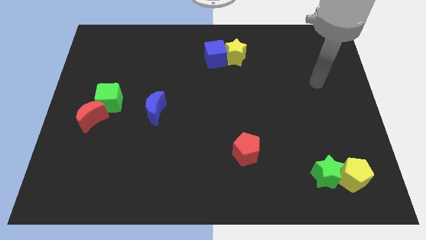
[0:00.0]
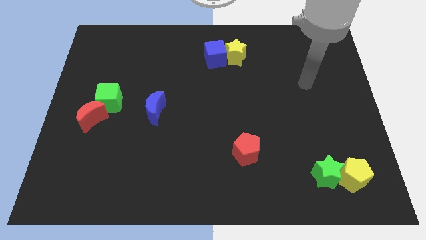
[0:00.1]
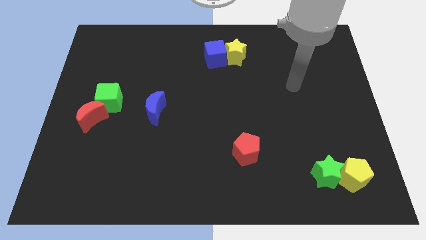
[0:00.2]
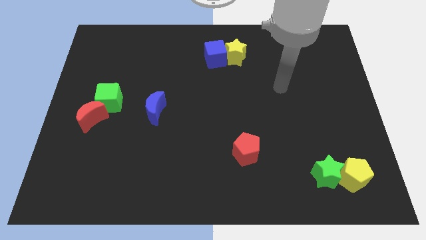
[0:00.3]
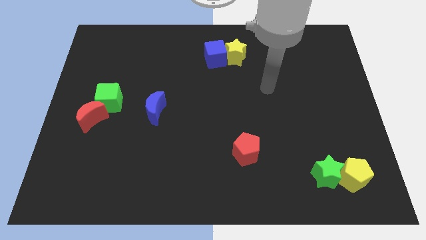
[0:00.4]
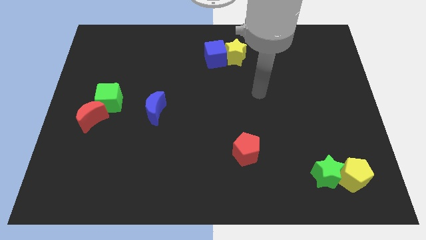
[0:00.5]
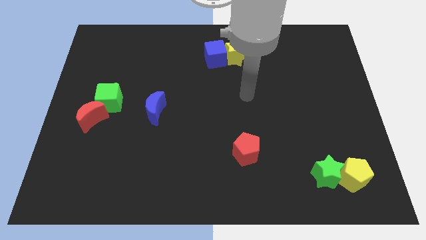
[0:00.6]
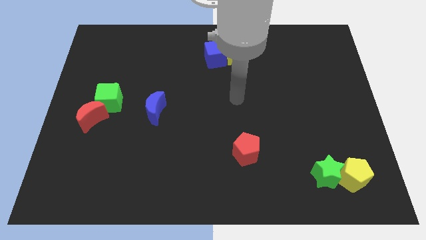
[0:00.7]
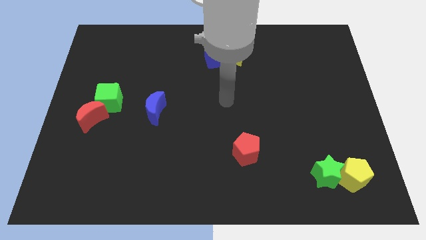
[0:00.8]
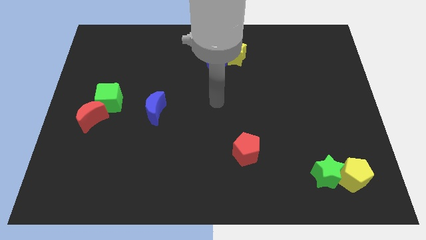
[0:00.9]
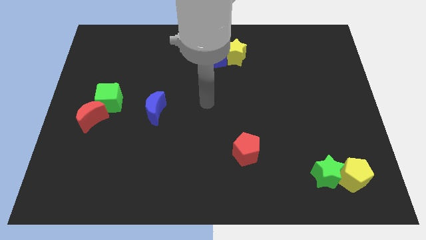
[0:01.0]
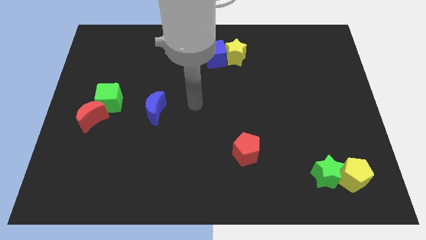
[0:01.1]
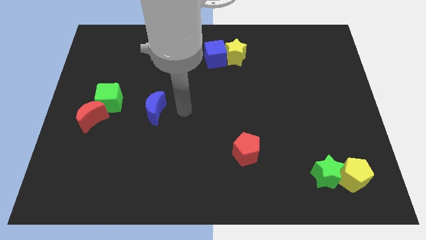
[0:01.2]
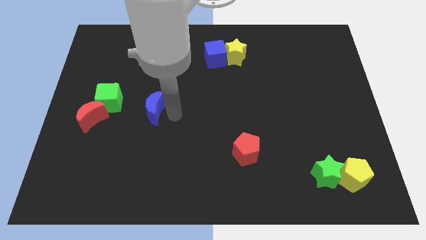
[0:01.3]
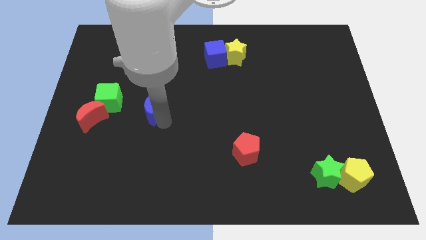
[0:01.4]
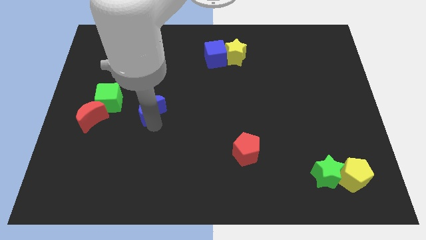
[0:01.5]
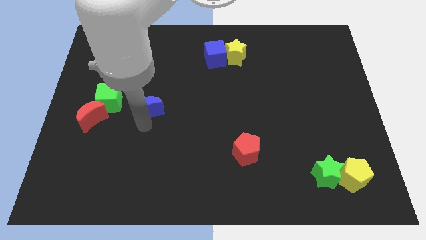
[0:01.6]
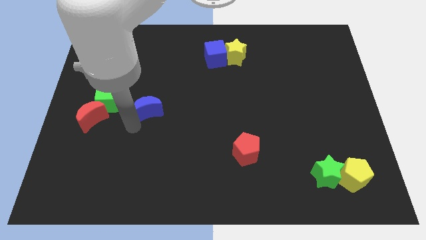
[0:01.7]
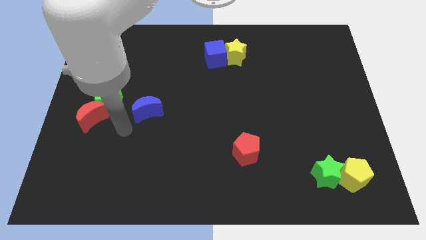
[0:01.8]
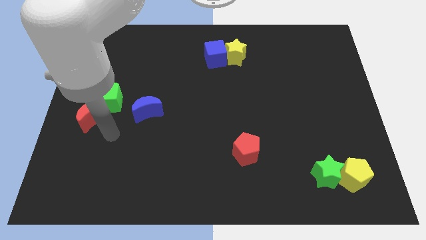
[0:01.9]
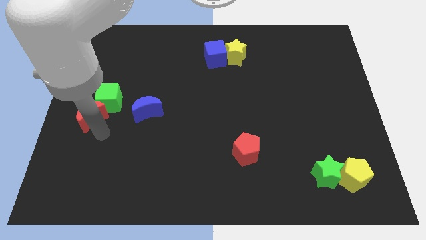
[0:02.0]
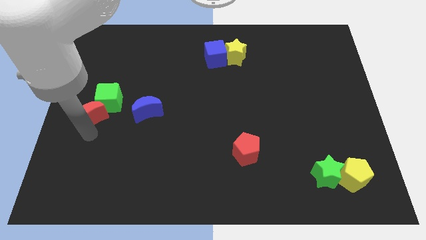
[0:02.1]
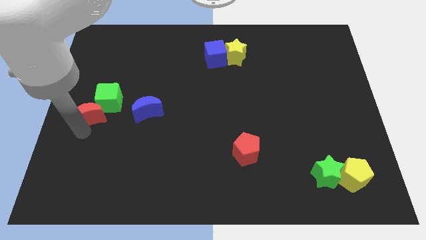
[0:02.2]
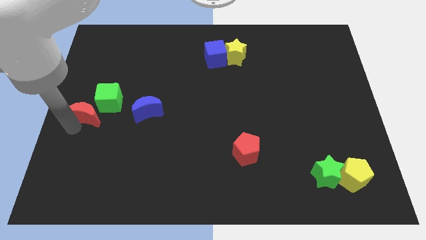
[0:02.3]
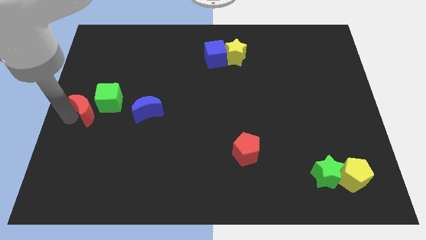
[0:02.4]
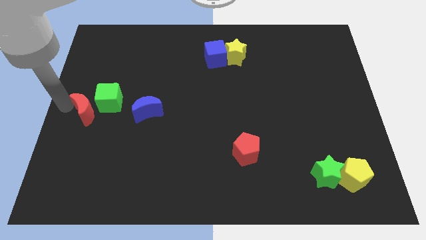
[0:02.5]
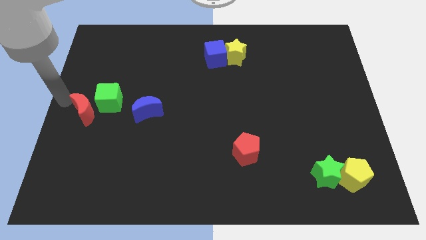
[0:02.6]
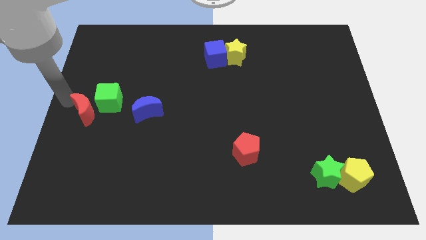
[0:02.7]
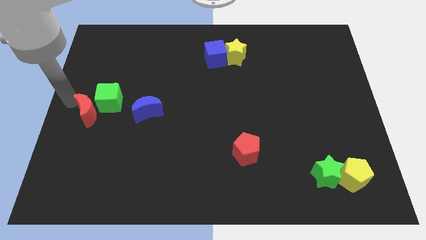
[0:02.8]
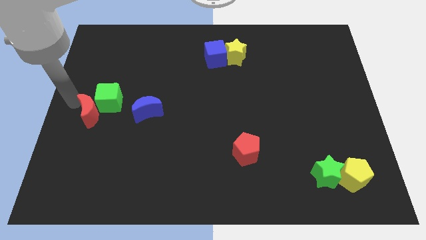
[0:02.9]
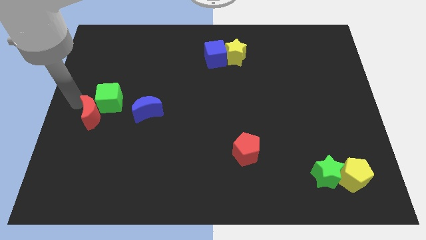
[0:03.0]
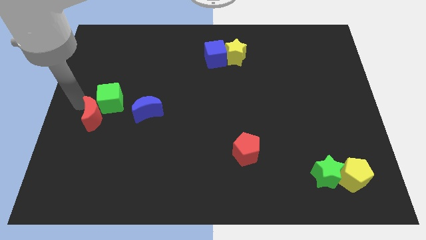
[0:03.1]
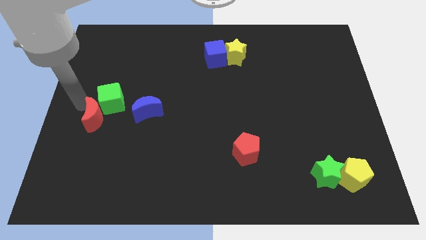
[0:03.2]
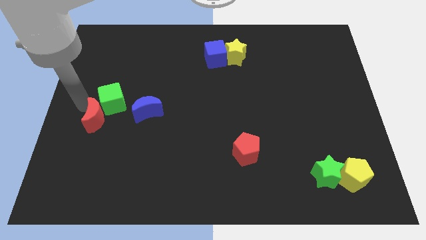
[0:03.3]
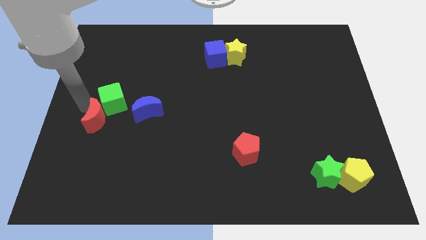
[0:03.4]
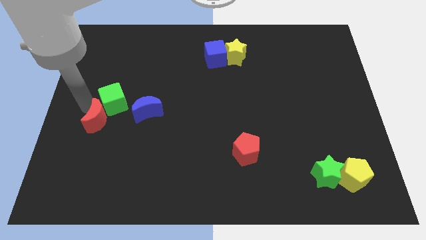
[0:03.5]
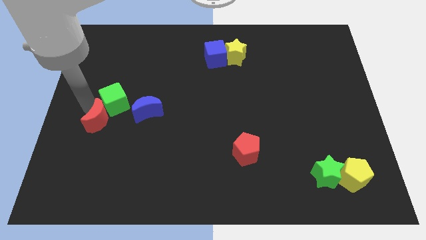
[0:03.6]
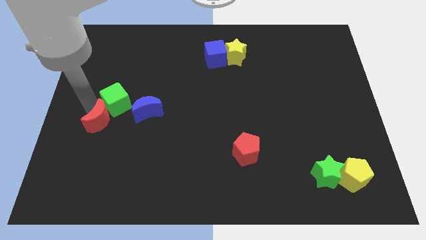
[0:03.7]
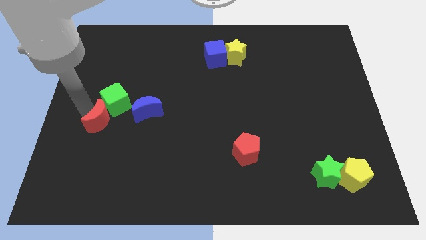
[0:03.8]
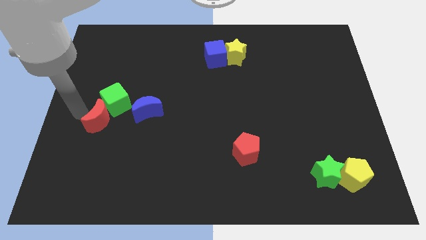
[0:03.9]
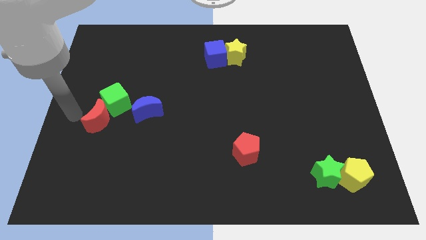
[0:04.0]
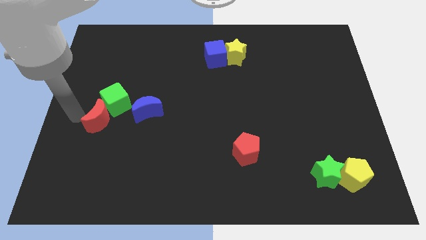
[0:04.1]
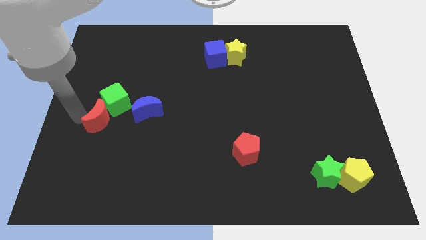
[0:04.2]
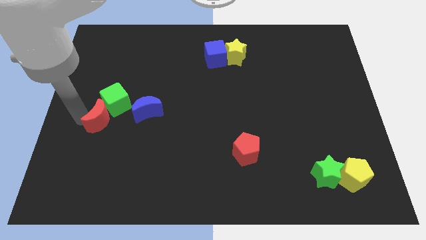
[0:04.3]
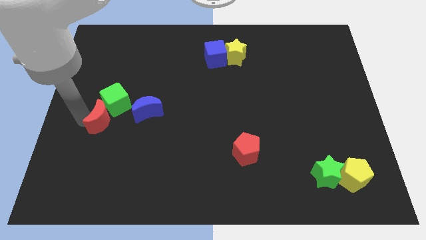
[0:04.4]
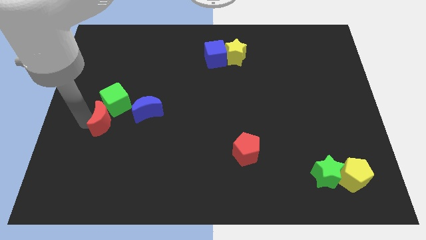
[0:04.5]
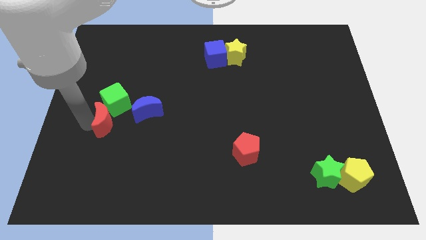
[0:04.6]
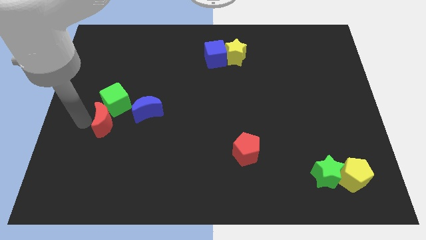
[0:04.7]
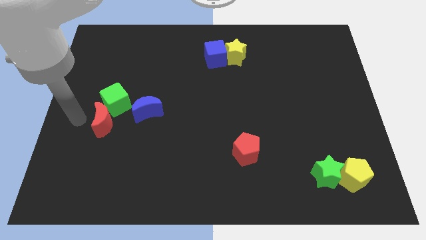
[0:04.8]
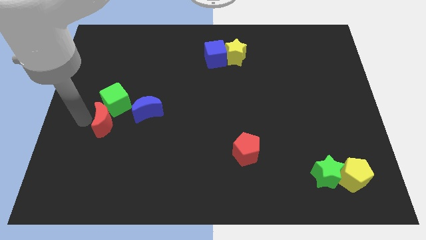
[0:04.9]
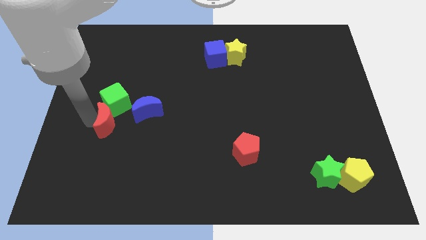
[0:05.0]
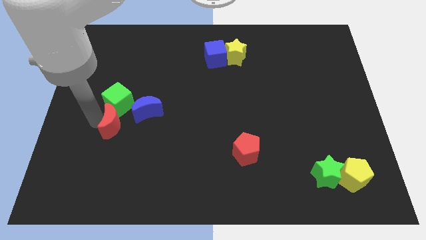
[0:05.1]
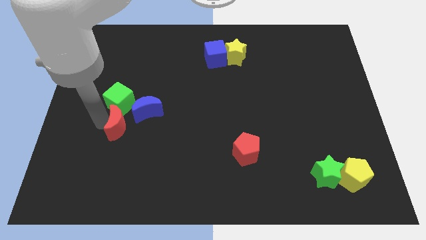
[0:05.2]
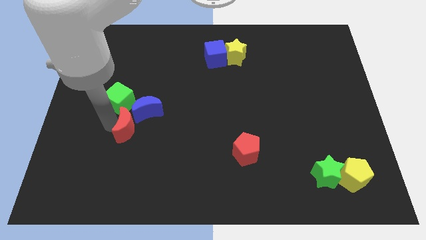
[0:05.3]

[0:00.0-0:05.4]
slide the red moon somewhat right

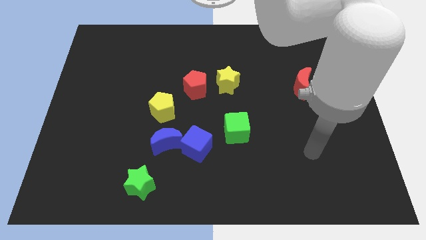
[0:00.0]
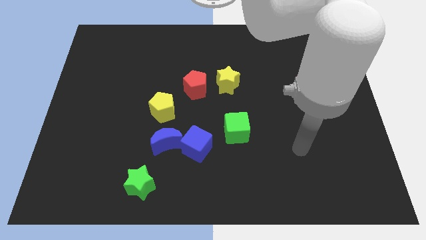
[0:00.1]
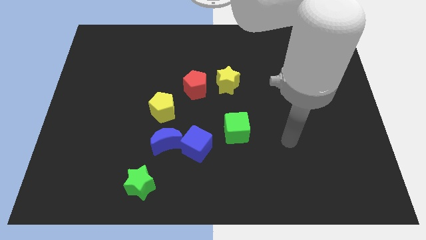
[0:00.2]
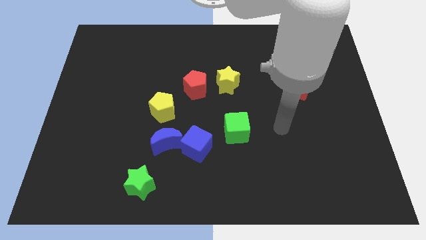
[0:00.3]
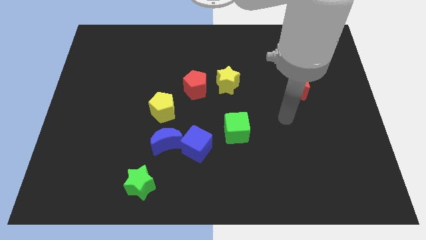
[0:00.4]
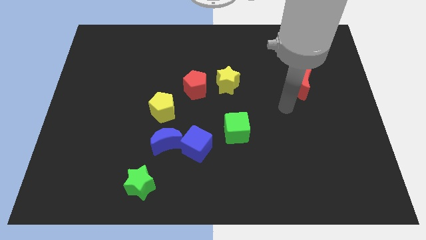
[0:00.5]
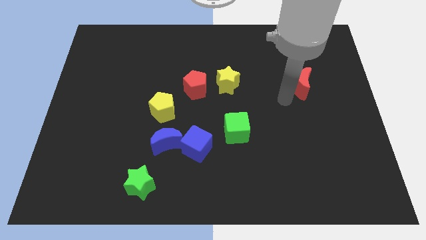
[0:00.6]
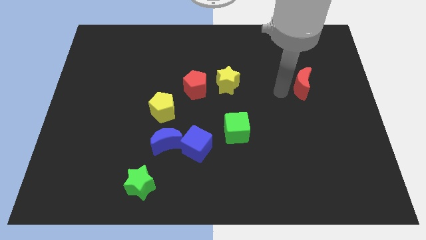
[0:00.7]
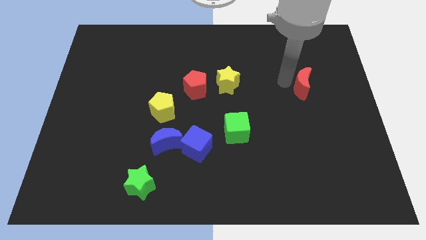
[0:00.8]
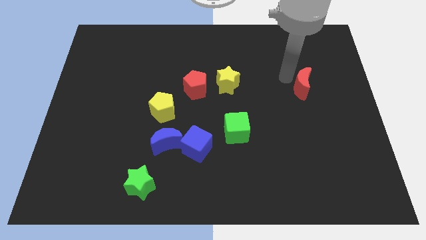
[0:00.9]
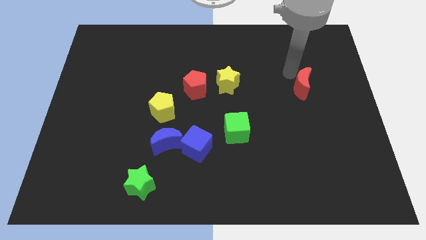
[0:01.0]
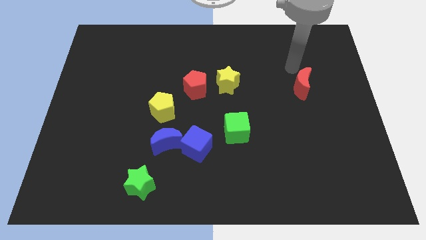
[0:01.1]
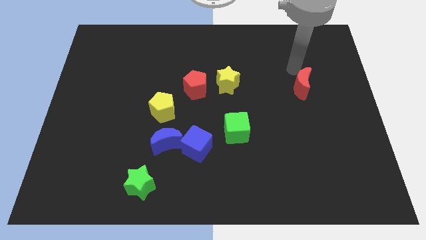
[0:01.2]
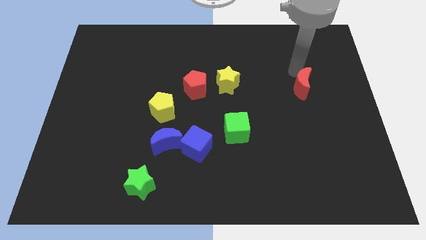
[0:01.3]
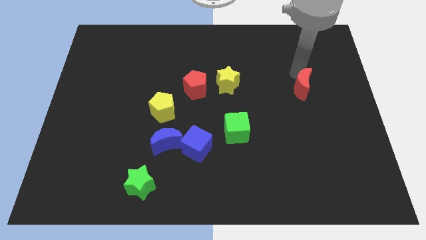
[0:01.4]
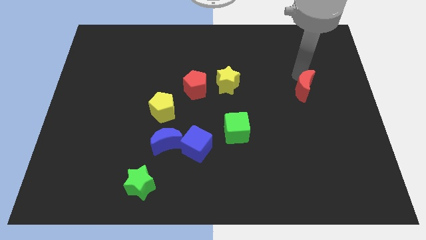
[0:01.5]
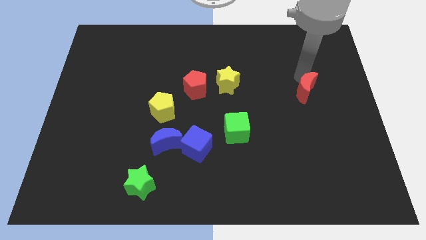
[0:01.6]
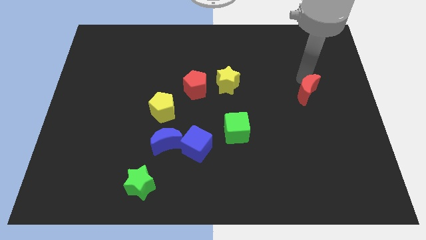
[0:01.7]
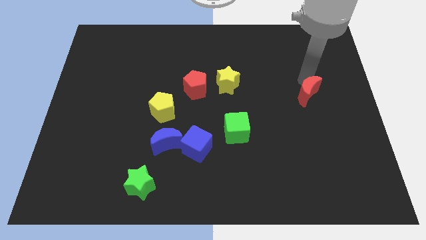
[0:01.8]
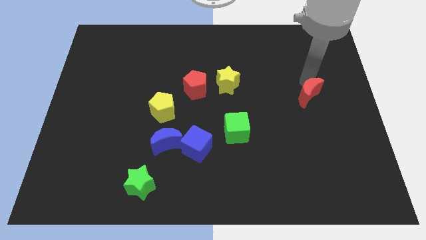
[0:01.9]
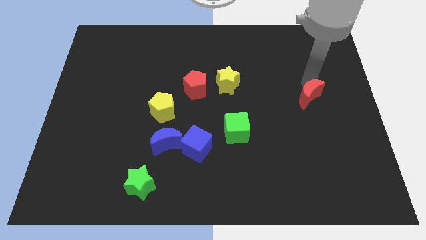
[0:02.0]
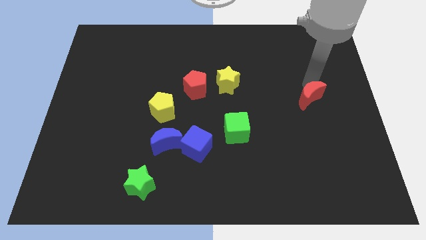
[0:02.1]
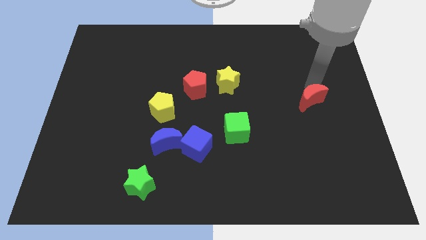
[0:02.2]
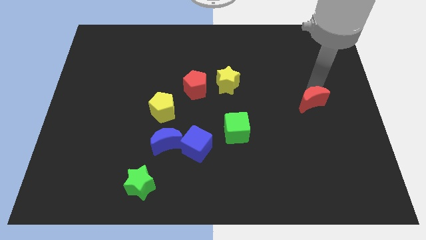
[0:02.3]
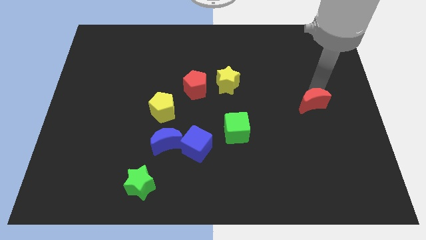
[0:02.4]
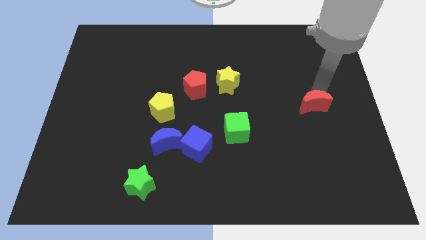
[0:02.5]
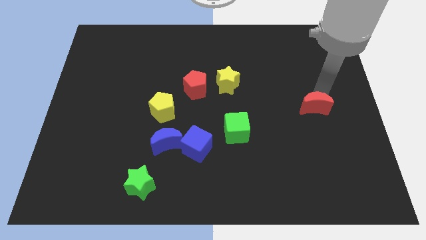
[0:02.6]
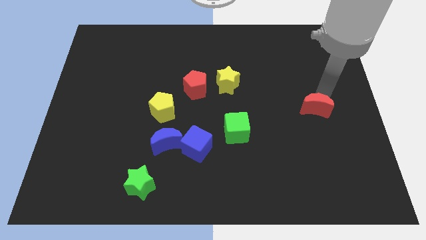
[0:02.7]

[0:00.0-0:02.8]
slide the red moon downwards somewhat
